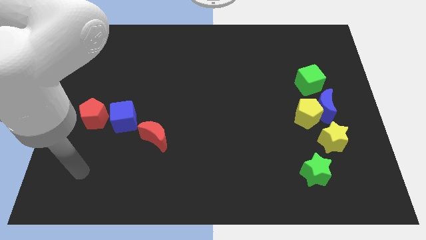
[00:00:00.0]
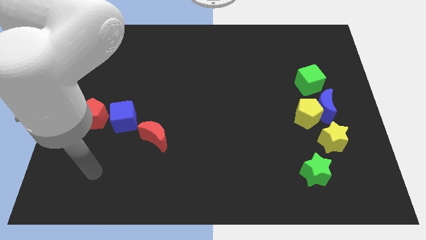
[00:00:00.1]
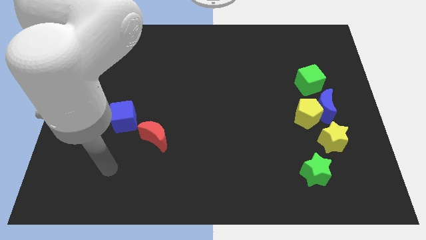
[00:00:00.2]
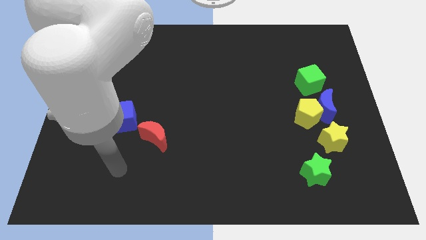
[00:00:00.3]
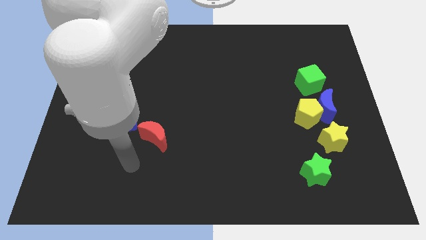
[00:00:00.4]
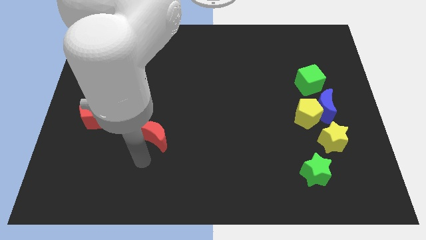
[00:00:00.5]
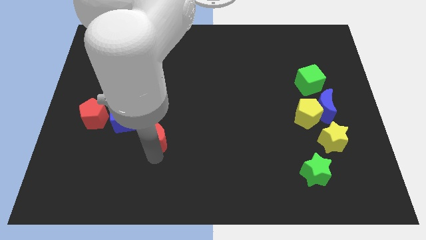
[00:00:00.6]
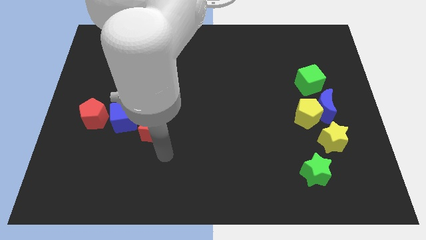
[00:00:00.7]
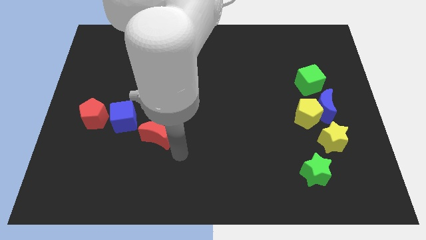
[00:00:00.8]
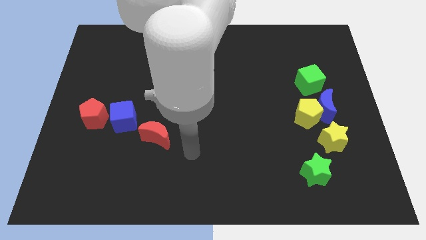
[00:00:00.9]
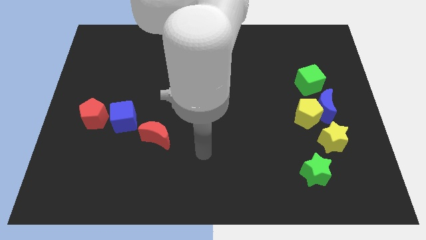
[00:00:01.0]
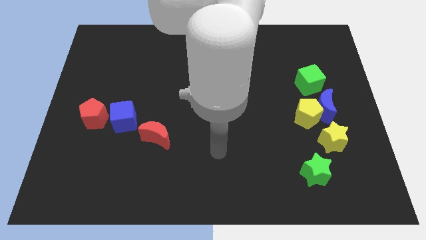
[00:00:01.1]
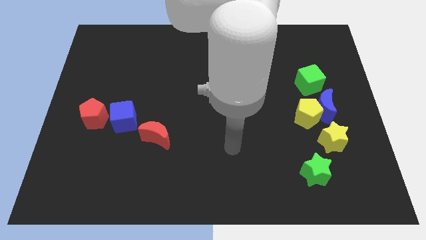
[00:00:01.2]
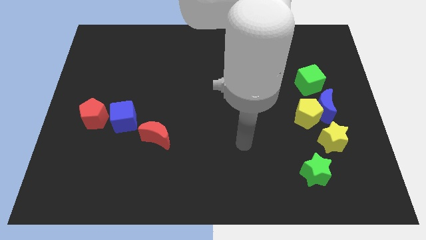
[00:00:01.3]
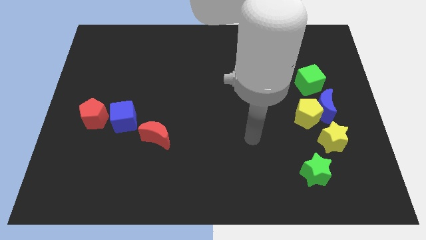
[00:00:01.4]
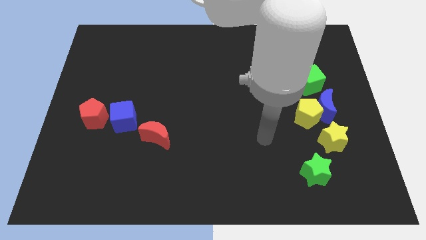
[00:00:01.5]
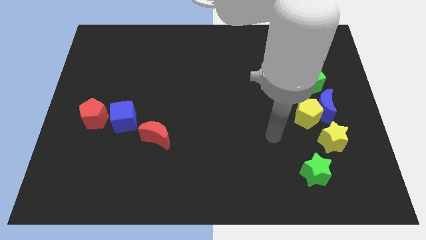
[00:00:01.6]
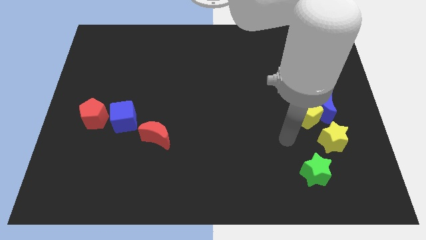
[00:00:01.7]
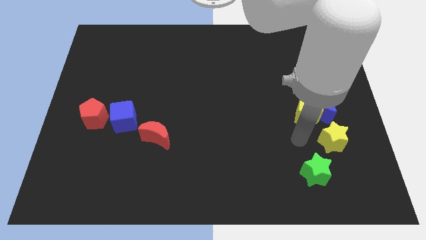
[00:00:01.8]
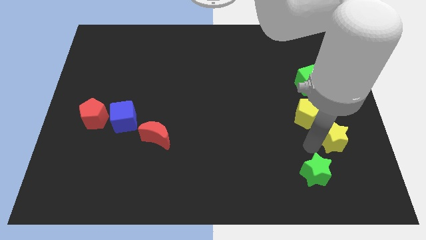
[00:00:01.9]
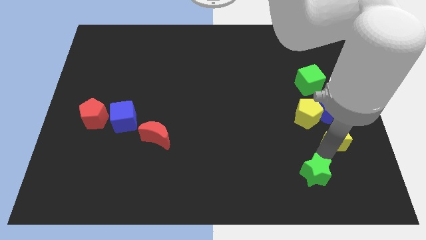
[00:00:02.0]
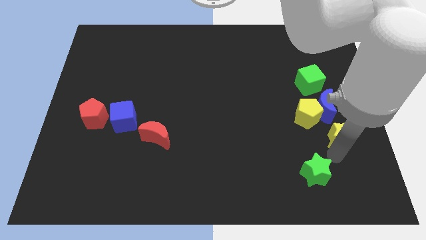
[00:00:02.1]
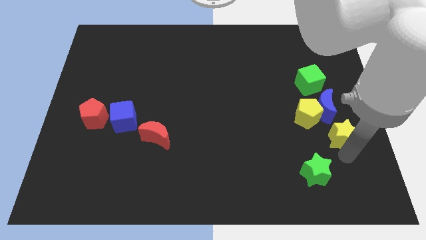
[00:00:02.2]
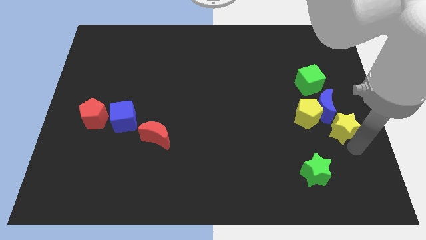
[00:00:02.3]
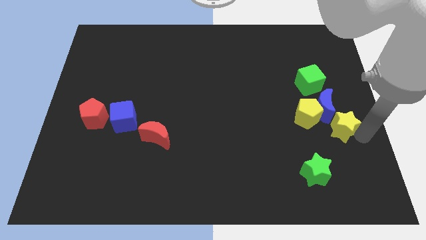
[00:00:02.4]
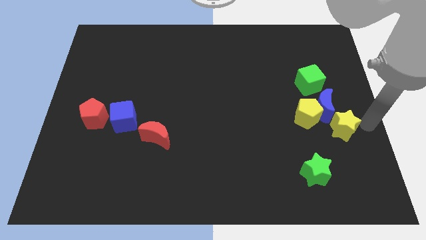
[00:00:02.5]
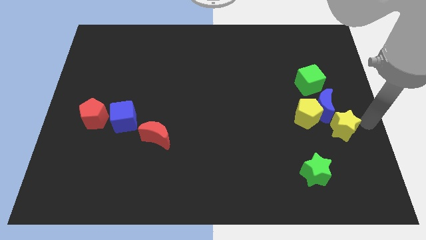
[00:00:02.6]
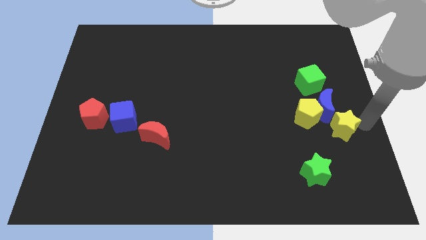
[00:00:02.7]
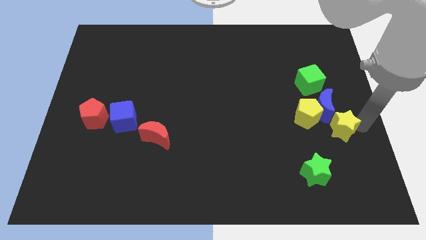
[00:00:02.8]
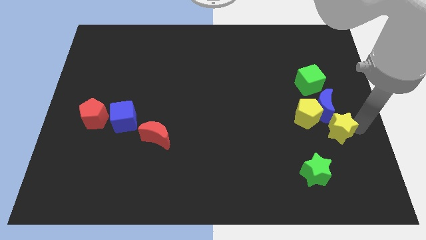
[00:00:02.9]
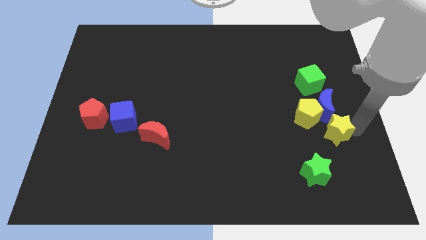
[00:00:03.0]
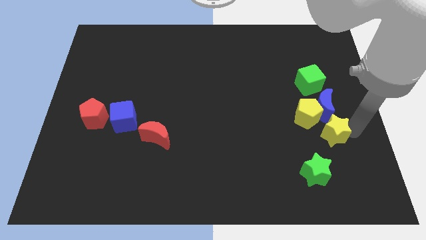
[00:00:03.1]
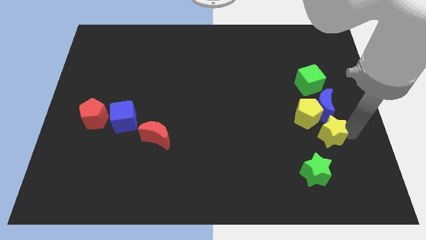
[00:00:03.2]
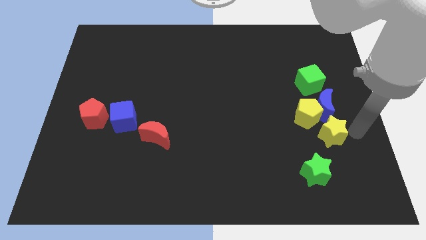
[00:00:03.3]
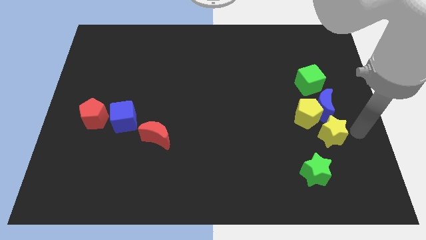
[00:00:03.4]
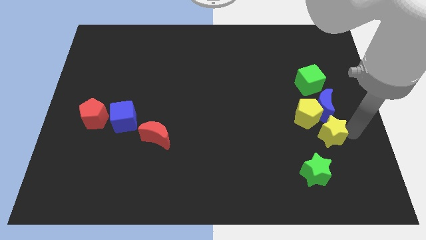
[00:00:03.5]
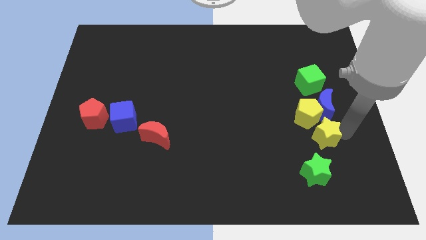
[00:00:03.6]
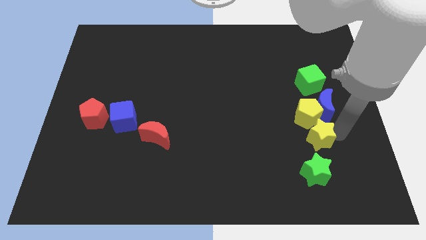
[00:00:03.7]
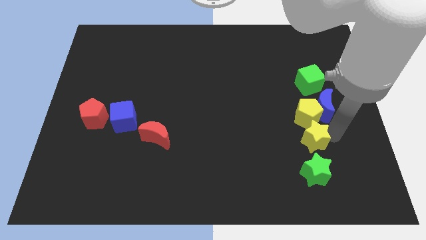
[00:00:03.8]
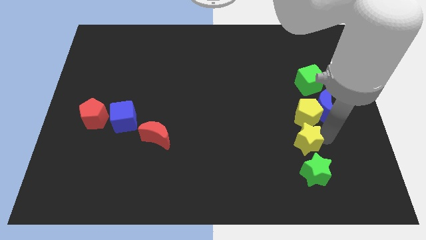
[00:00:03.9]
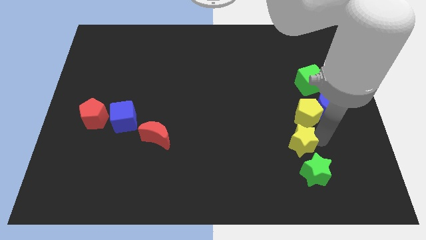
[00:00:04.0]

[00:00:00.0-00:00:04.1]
slightly slide the yellow star left

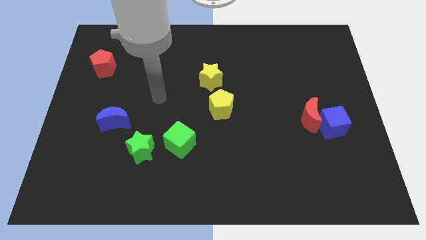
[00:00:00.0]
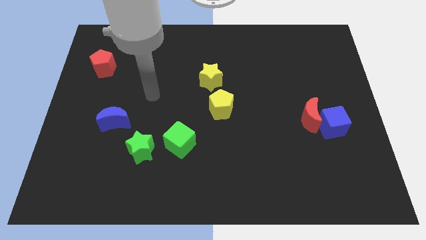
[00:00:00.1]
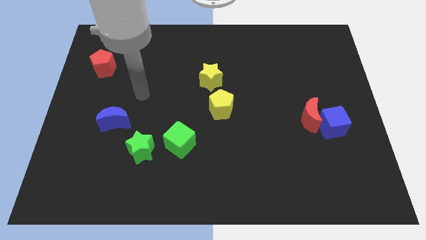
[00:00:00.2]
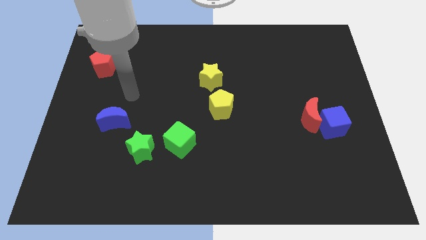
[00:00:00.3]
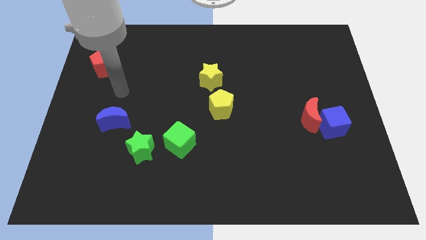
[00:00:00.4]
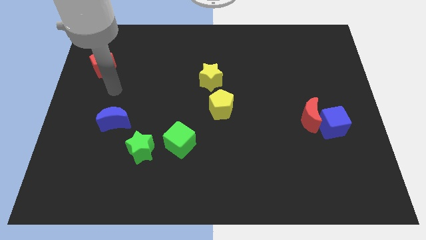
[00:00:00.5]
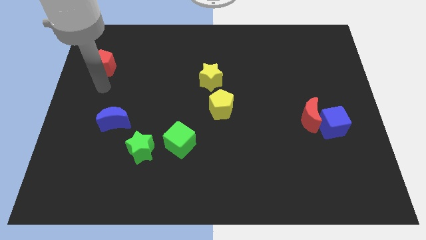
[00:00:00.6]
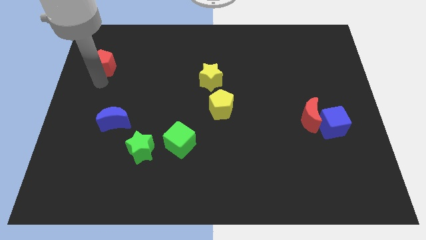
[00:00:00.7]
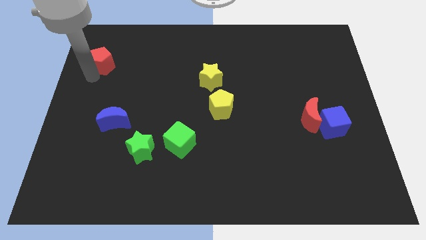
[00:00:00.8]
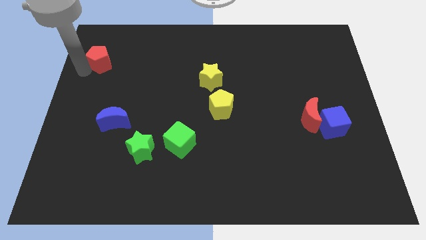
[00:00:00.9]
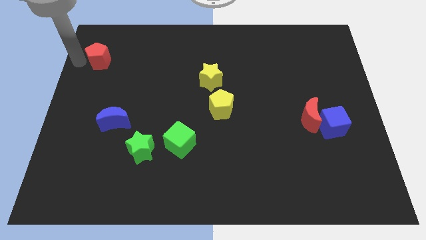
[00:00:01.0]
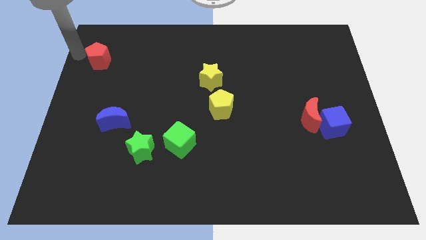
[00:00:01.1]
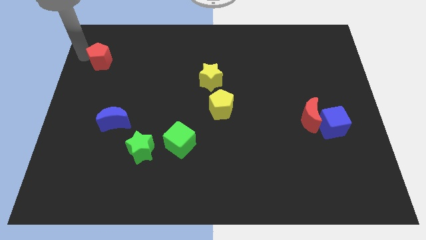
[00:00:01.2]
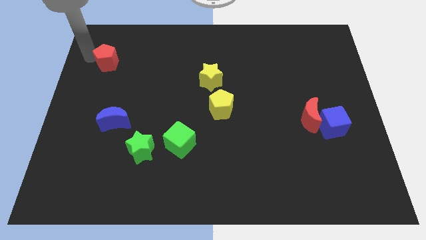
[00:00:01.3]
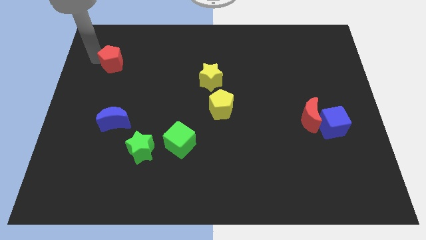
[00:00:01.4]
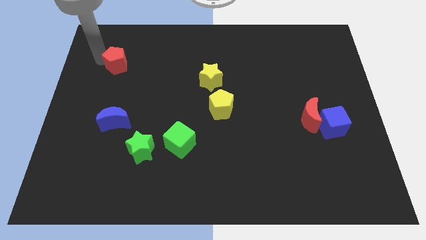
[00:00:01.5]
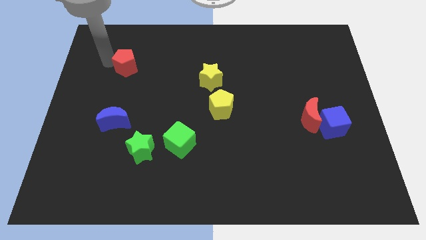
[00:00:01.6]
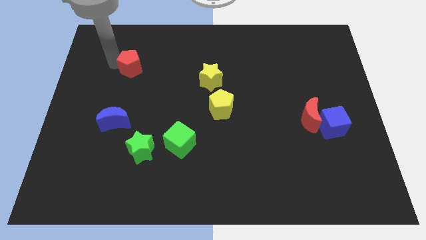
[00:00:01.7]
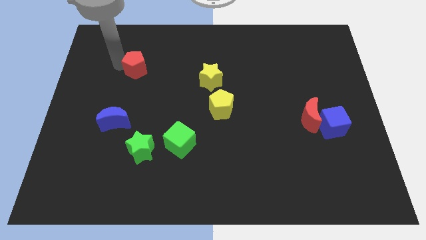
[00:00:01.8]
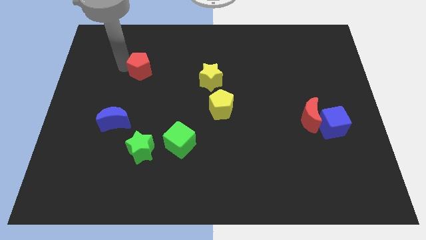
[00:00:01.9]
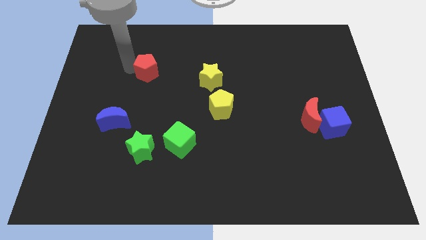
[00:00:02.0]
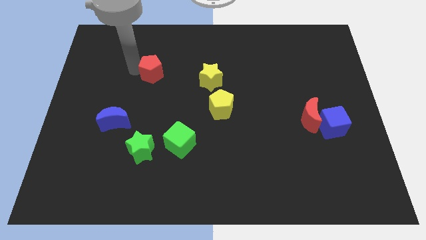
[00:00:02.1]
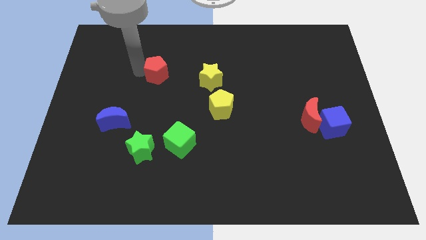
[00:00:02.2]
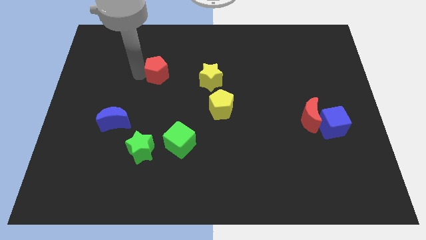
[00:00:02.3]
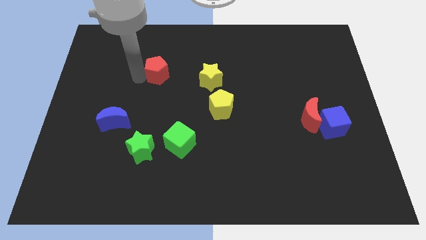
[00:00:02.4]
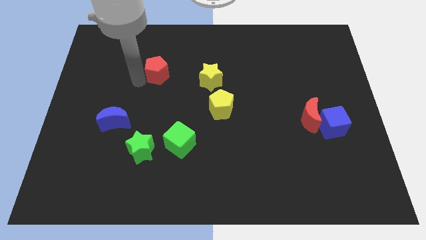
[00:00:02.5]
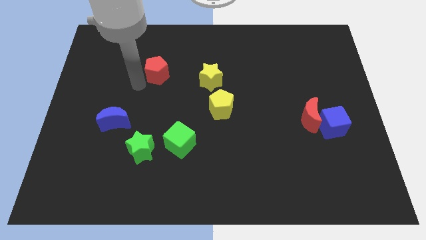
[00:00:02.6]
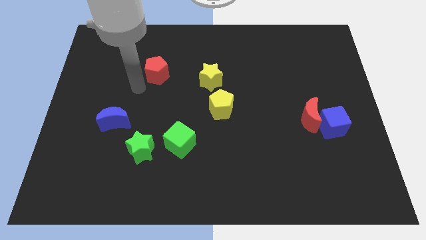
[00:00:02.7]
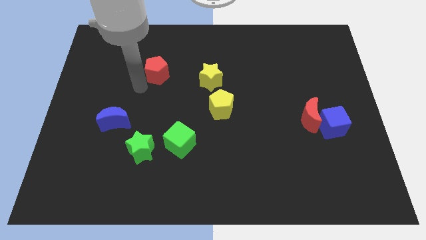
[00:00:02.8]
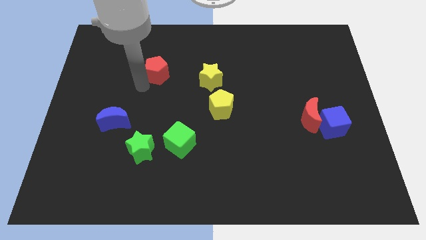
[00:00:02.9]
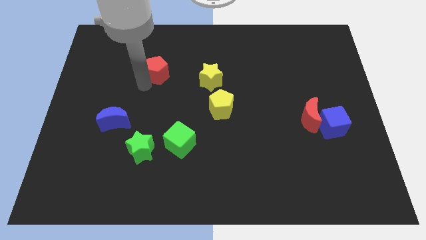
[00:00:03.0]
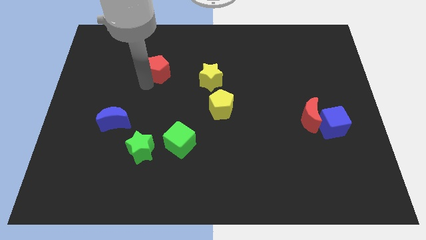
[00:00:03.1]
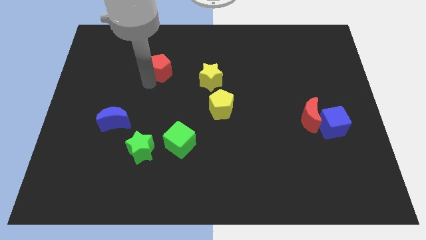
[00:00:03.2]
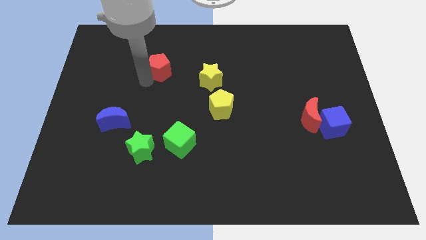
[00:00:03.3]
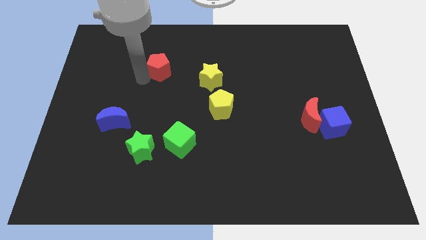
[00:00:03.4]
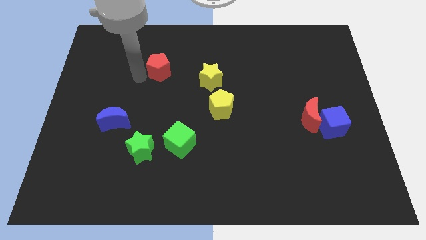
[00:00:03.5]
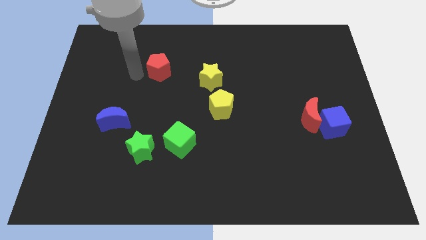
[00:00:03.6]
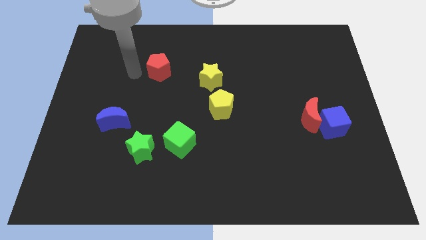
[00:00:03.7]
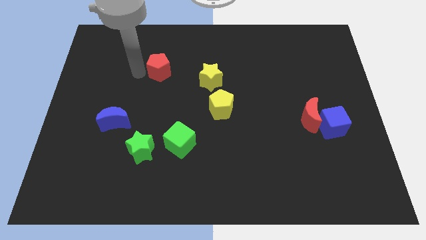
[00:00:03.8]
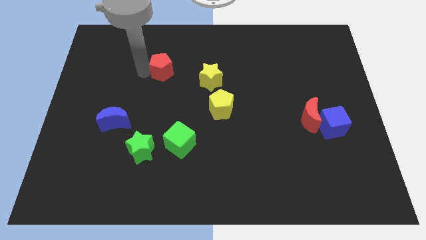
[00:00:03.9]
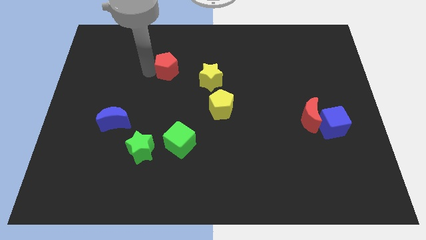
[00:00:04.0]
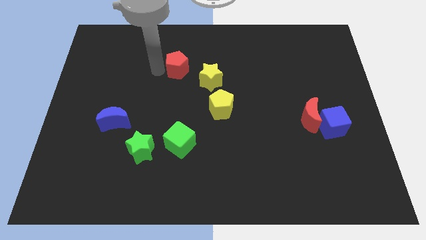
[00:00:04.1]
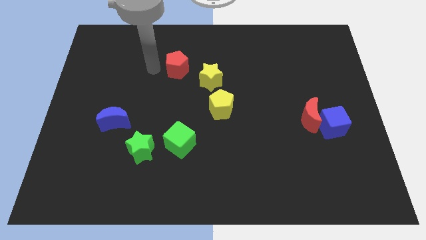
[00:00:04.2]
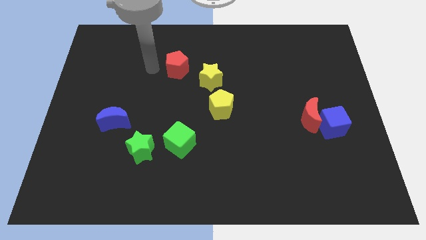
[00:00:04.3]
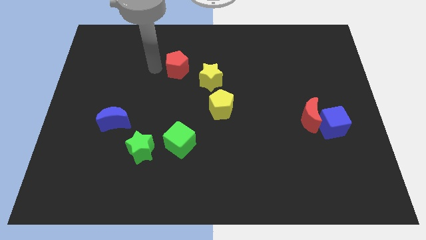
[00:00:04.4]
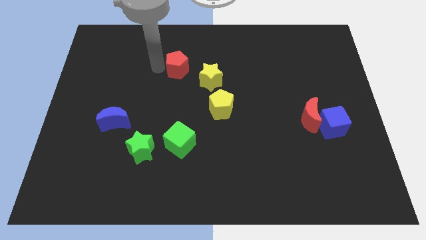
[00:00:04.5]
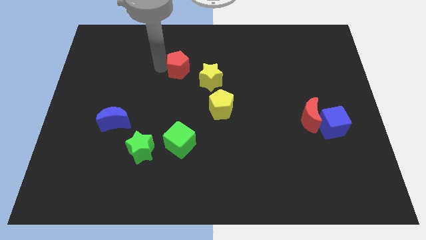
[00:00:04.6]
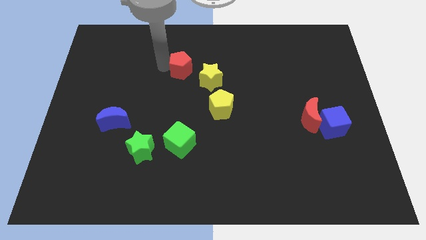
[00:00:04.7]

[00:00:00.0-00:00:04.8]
push the red pentagon to the right
